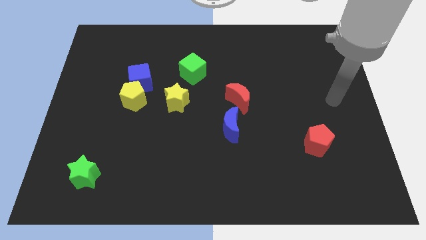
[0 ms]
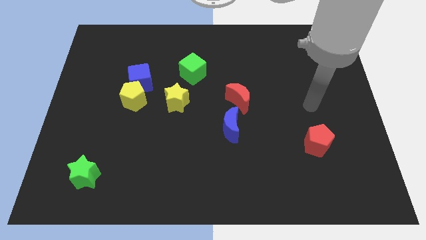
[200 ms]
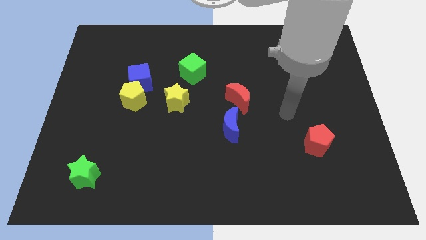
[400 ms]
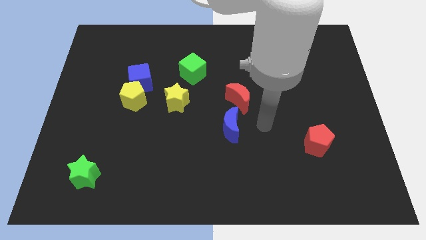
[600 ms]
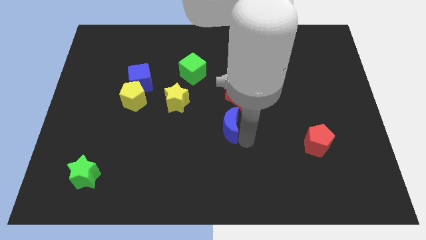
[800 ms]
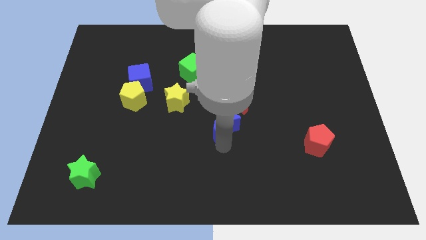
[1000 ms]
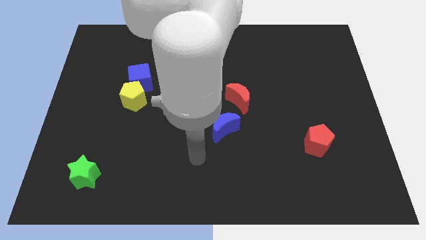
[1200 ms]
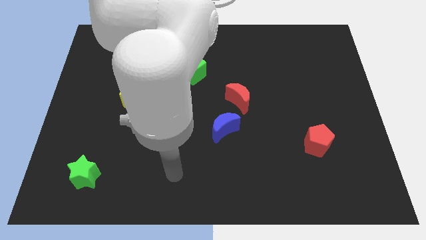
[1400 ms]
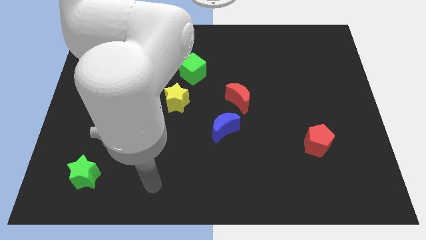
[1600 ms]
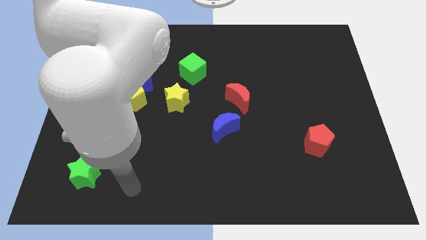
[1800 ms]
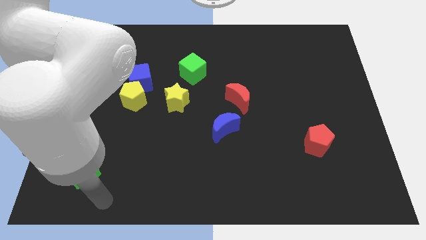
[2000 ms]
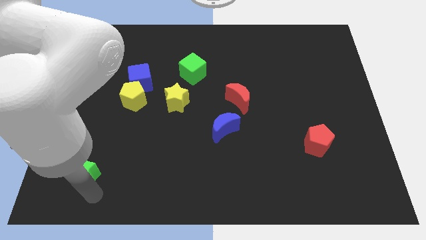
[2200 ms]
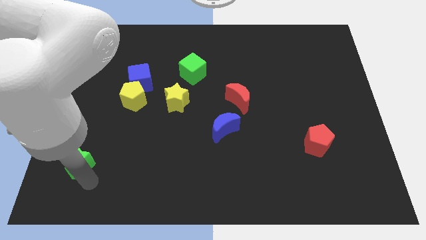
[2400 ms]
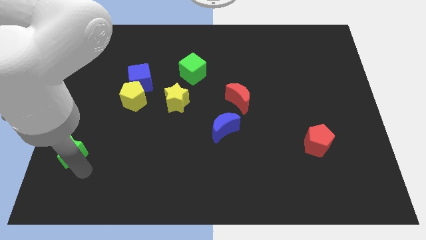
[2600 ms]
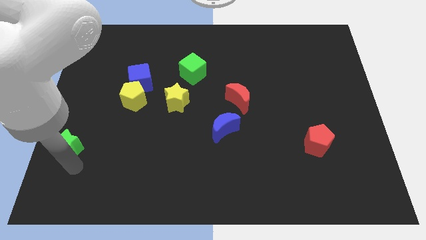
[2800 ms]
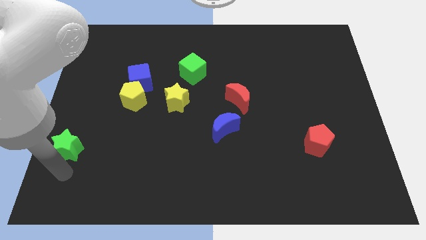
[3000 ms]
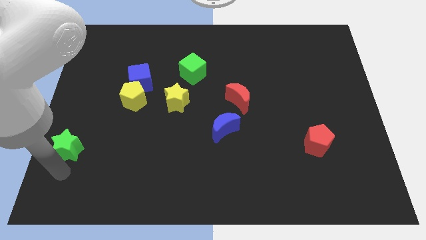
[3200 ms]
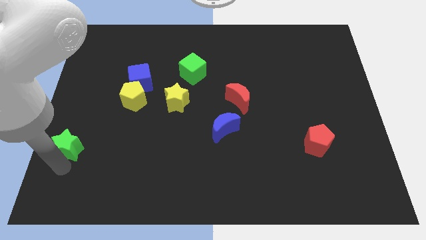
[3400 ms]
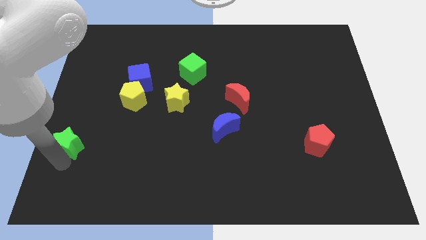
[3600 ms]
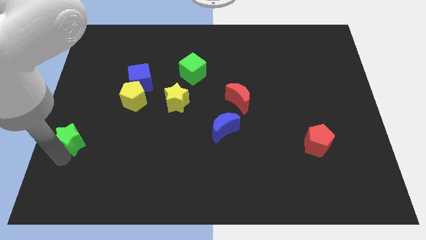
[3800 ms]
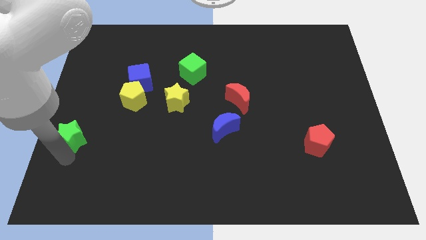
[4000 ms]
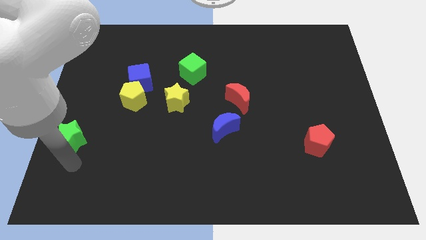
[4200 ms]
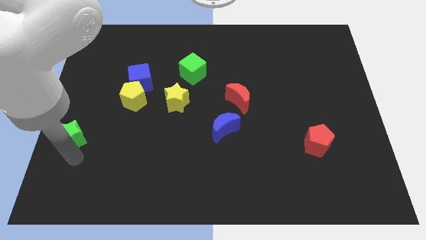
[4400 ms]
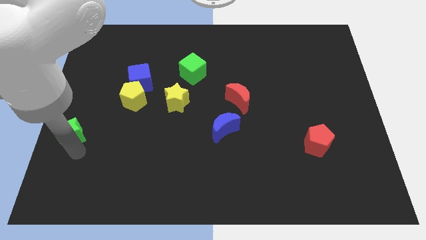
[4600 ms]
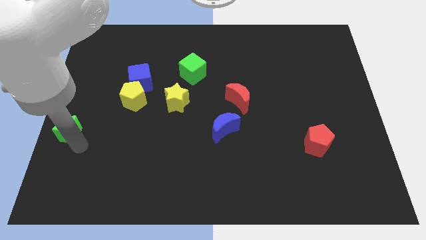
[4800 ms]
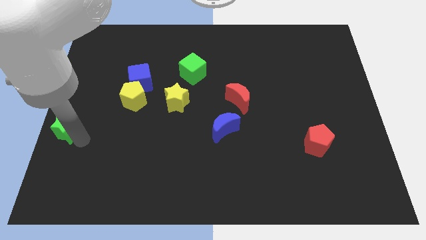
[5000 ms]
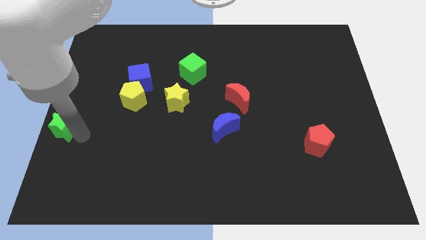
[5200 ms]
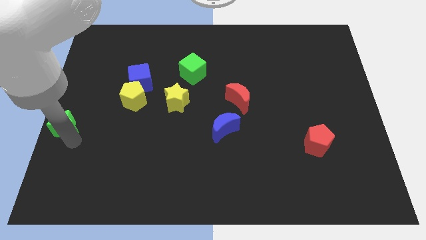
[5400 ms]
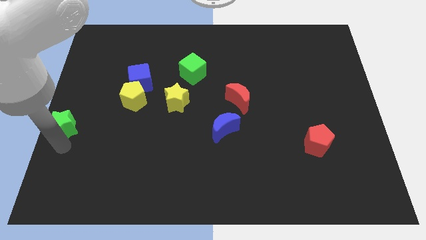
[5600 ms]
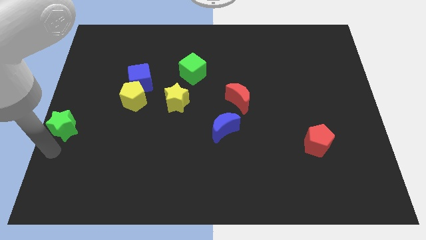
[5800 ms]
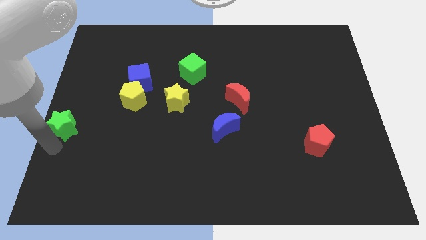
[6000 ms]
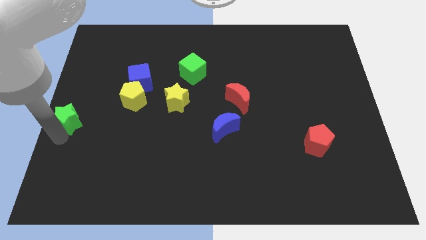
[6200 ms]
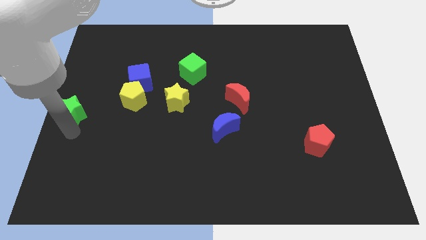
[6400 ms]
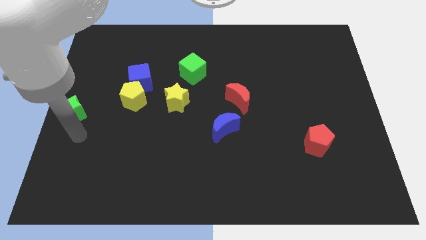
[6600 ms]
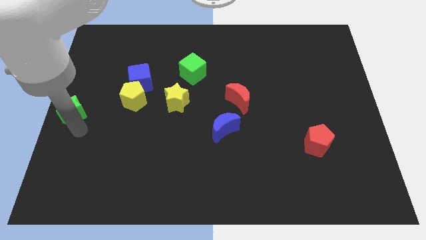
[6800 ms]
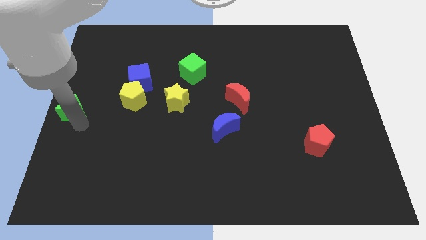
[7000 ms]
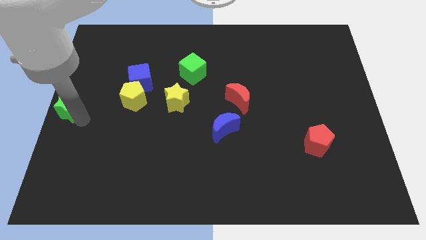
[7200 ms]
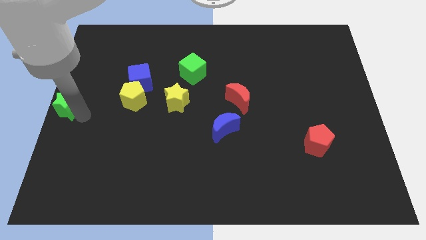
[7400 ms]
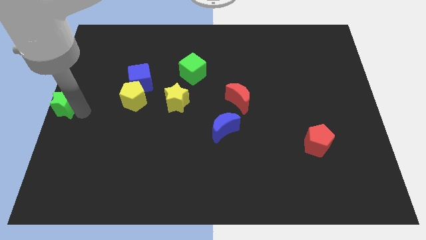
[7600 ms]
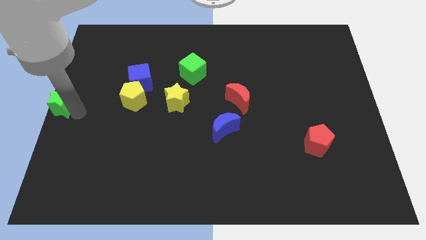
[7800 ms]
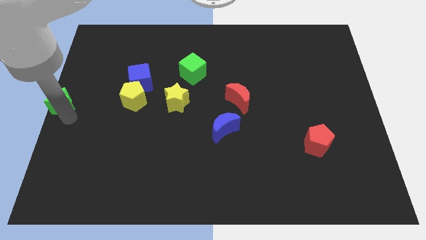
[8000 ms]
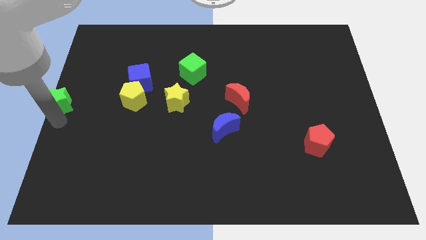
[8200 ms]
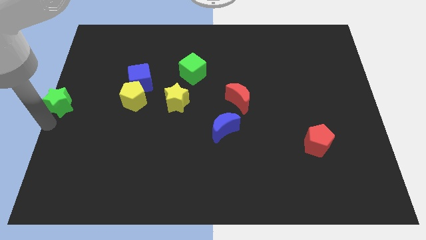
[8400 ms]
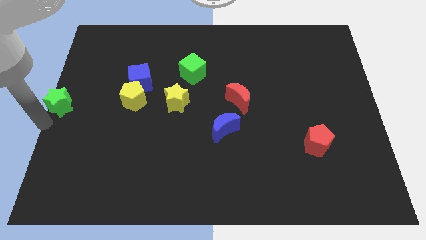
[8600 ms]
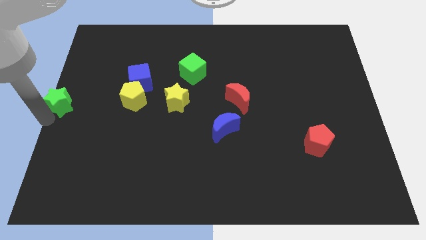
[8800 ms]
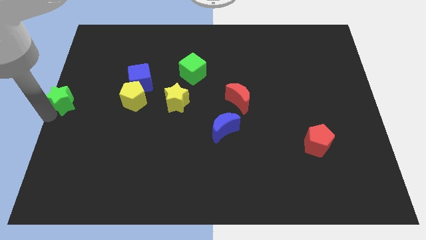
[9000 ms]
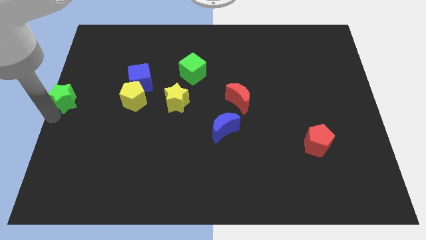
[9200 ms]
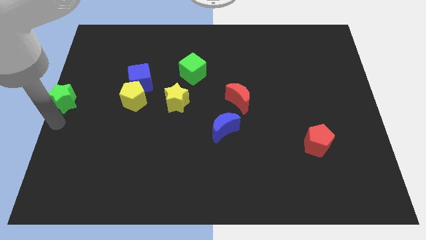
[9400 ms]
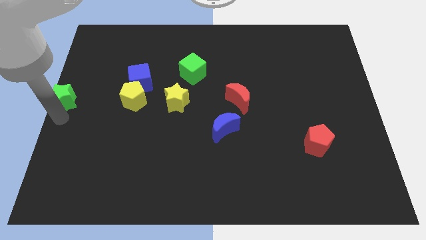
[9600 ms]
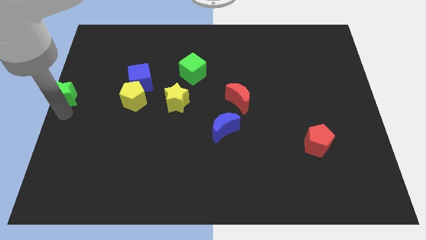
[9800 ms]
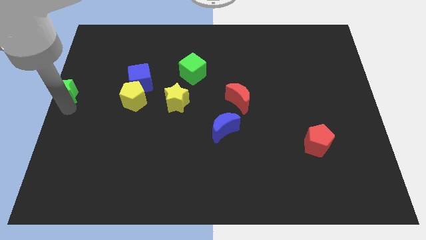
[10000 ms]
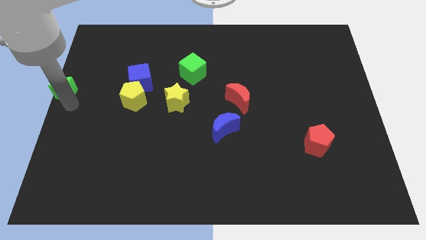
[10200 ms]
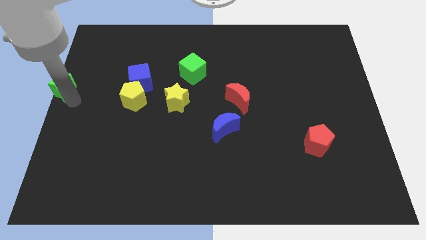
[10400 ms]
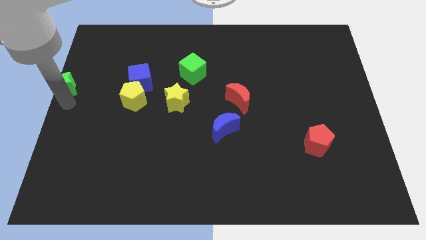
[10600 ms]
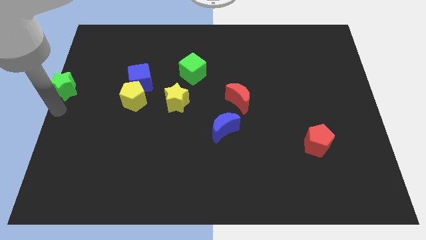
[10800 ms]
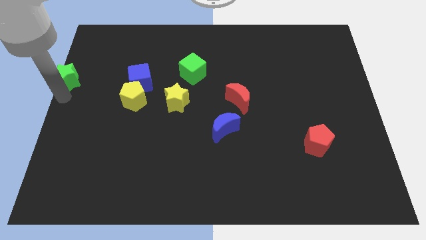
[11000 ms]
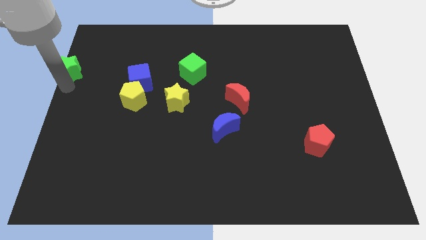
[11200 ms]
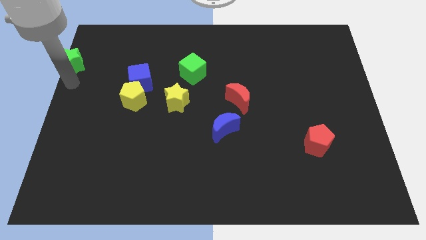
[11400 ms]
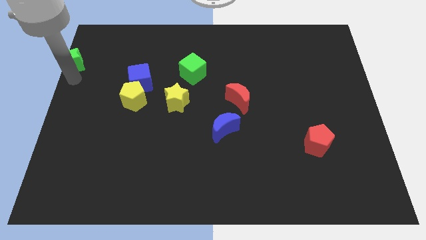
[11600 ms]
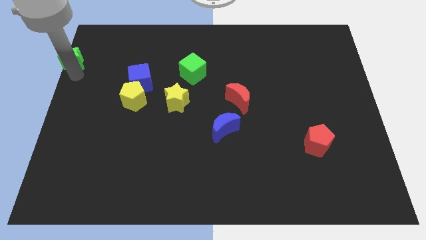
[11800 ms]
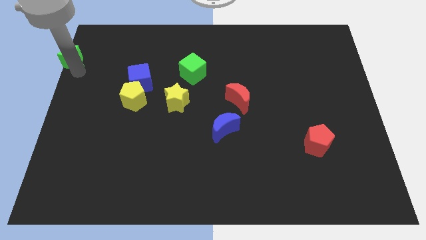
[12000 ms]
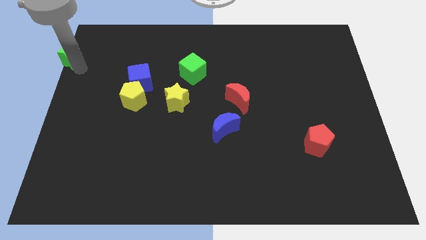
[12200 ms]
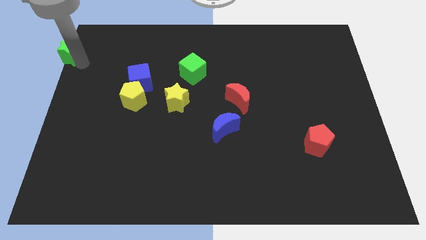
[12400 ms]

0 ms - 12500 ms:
push the green star to the top left corner

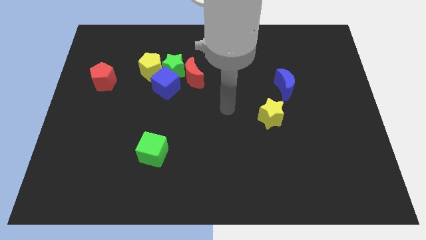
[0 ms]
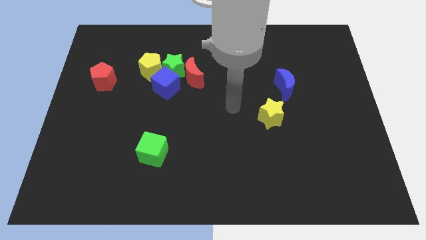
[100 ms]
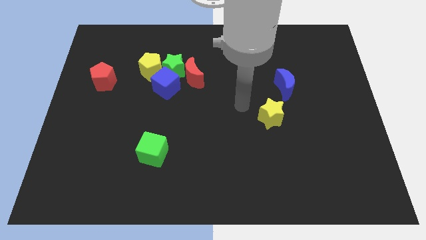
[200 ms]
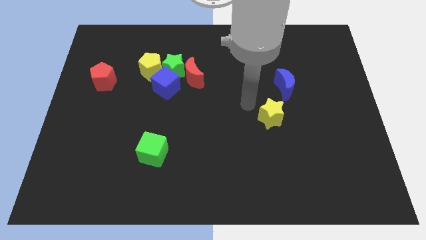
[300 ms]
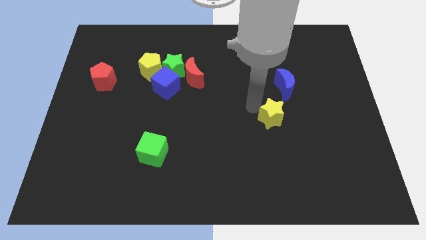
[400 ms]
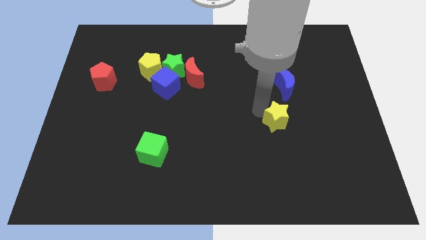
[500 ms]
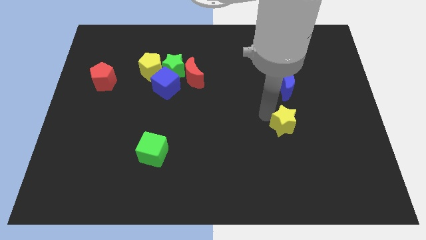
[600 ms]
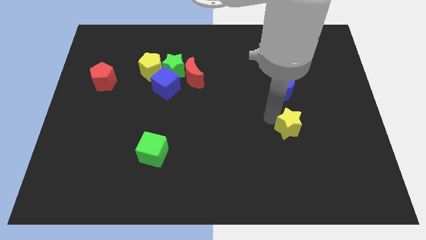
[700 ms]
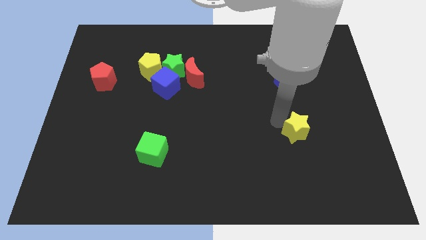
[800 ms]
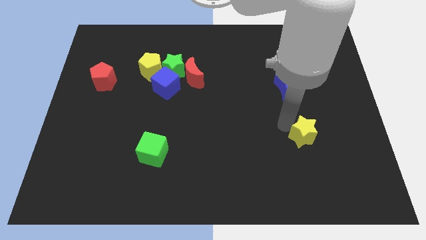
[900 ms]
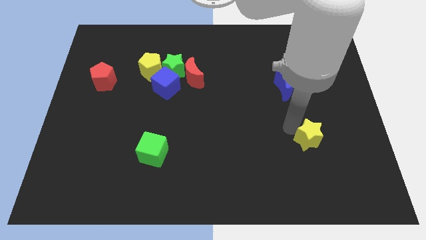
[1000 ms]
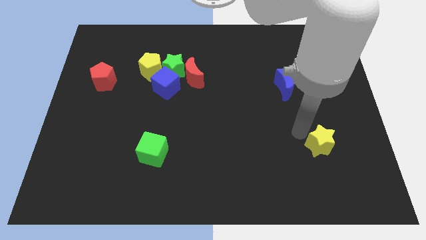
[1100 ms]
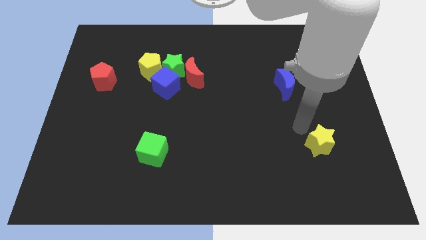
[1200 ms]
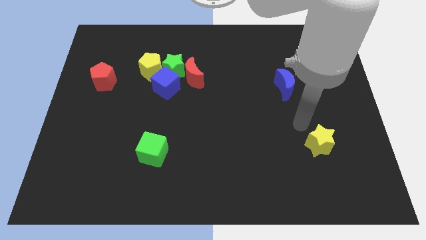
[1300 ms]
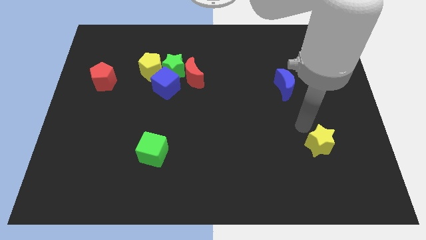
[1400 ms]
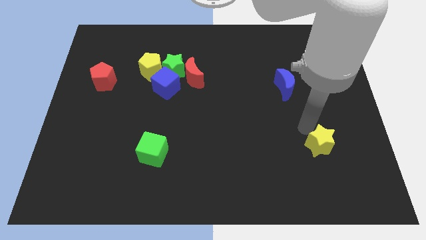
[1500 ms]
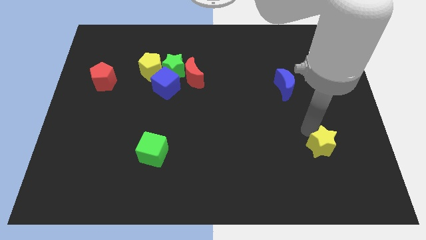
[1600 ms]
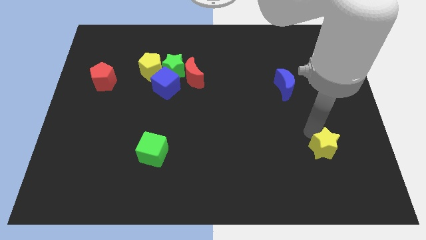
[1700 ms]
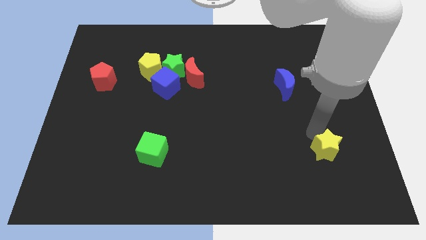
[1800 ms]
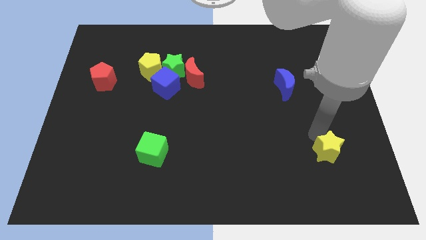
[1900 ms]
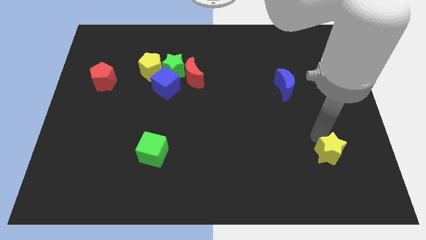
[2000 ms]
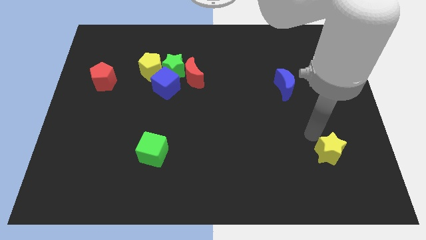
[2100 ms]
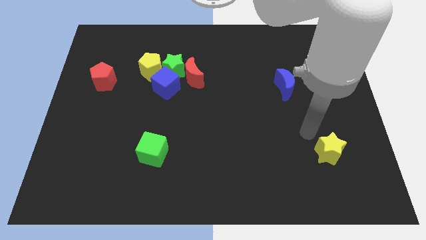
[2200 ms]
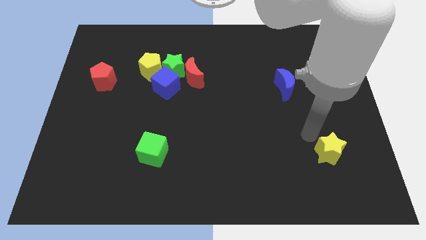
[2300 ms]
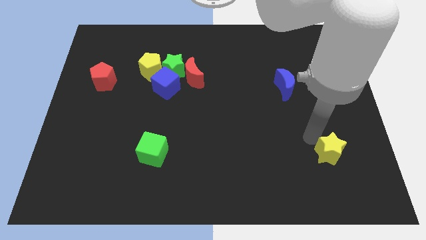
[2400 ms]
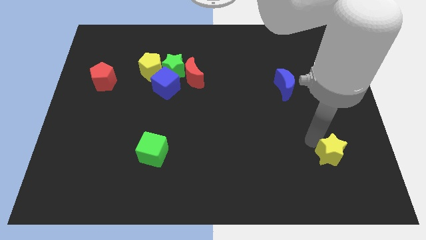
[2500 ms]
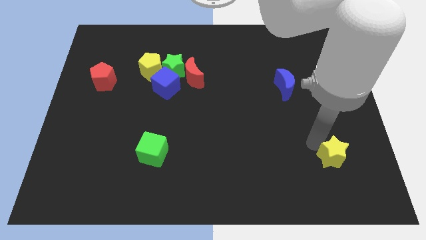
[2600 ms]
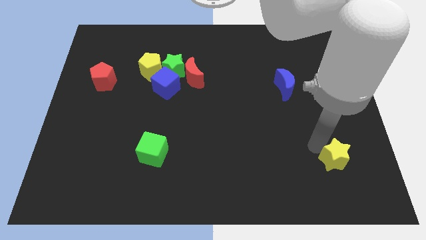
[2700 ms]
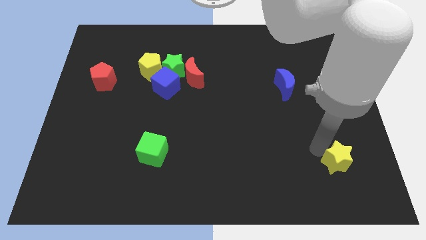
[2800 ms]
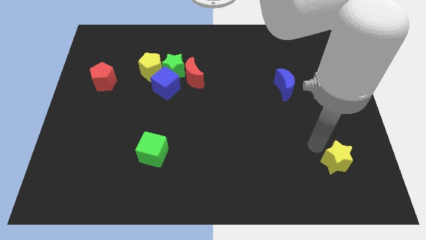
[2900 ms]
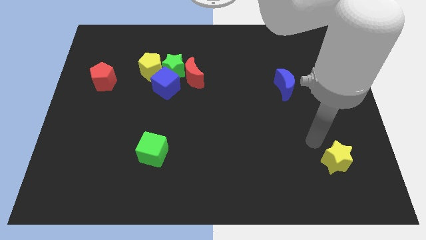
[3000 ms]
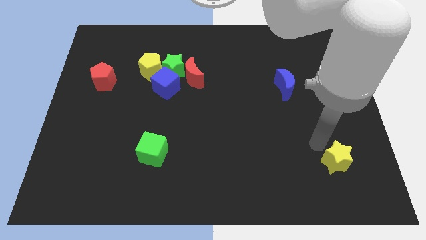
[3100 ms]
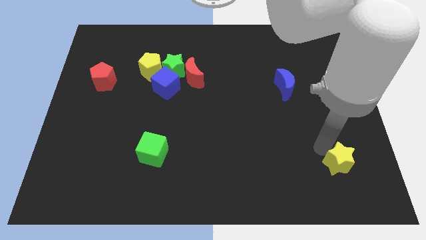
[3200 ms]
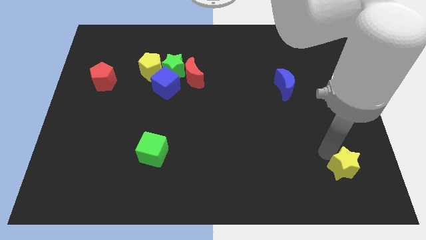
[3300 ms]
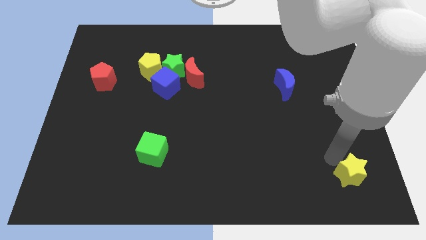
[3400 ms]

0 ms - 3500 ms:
slide the yellow star to the bottom right corner
